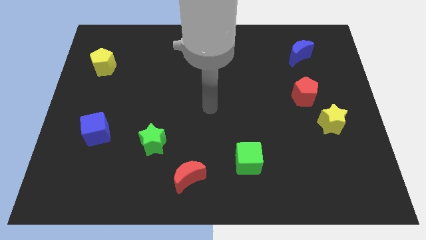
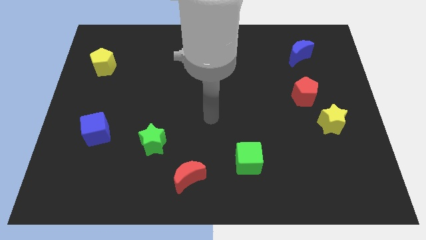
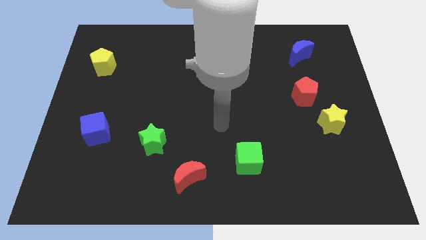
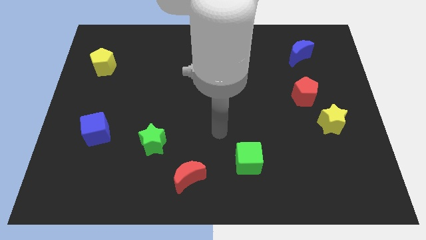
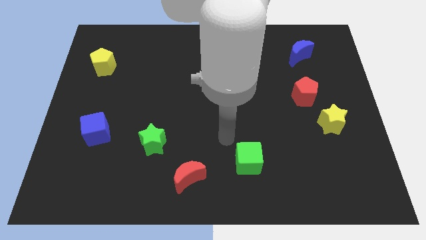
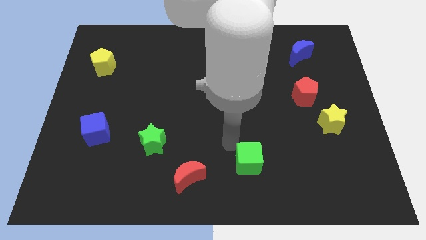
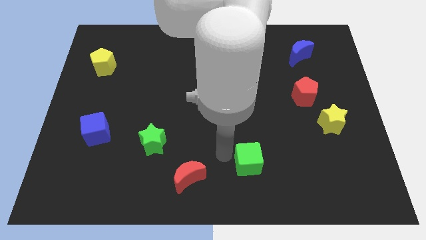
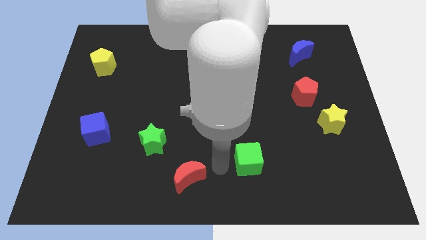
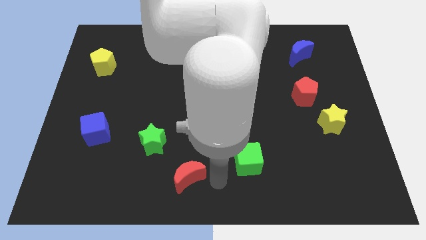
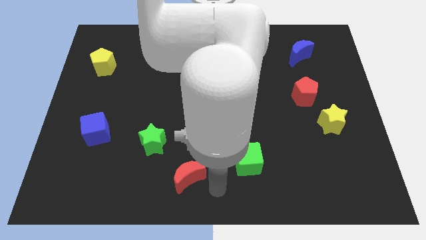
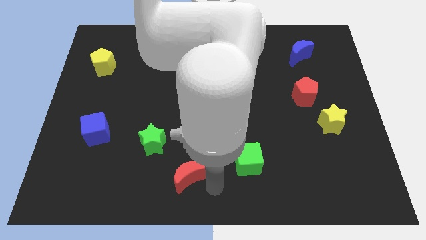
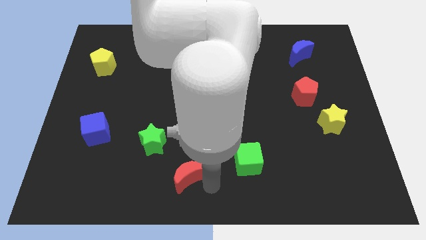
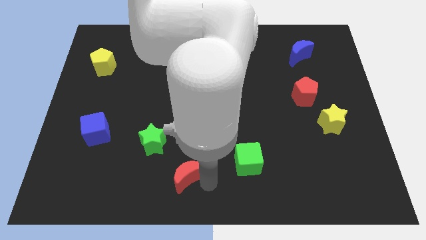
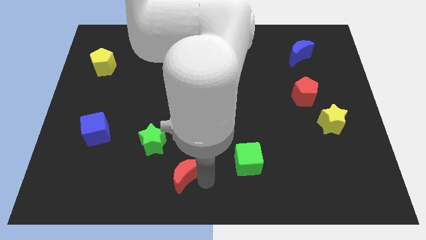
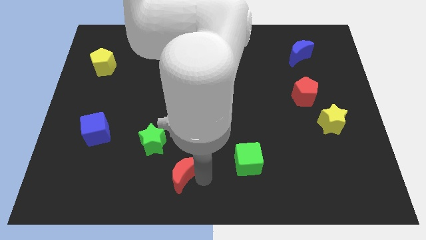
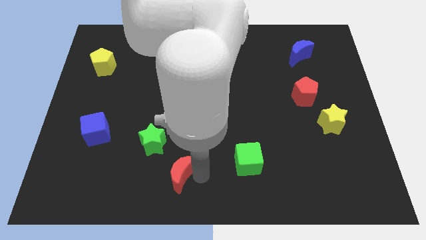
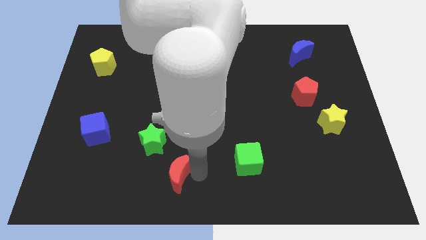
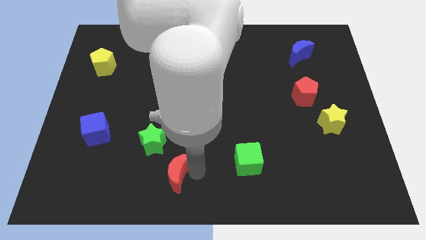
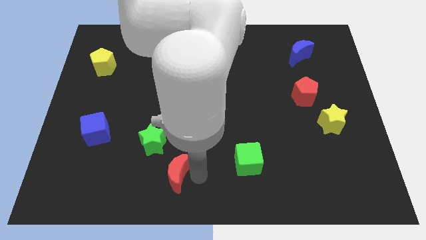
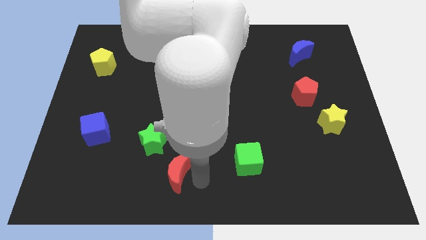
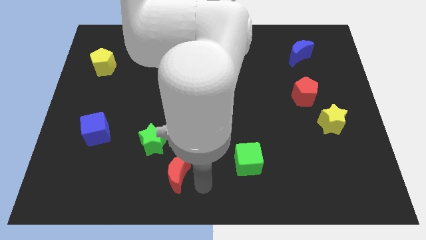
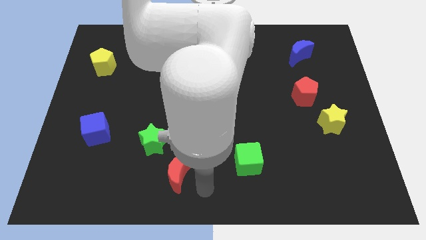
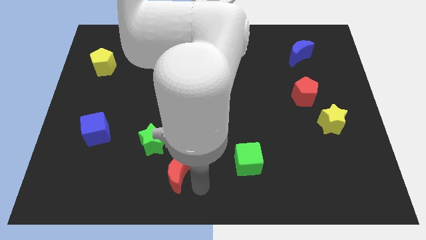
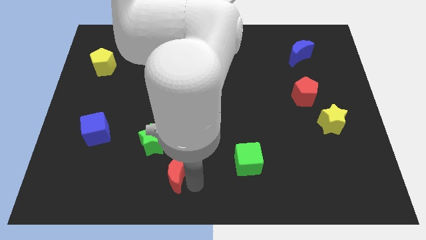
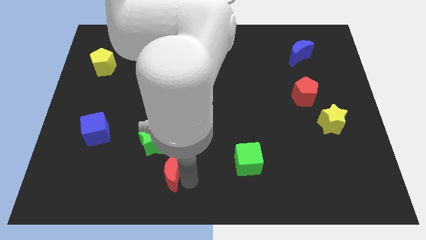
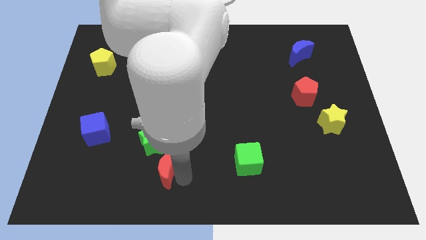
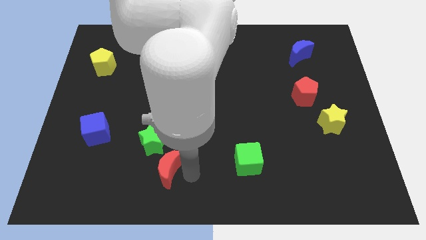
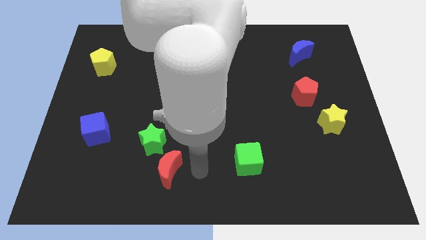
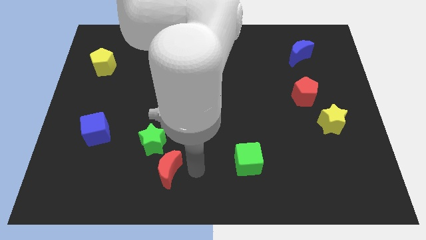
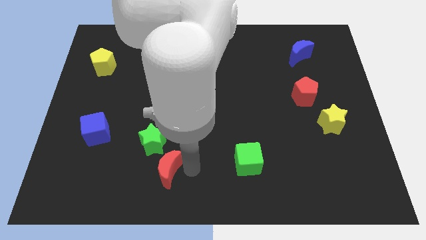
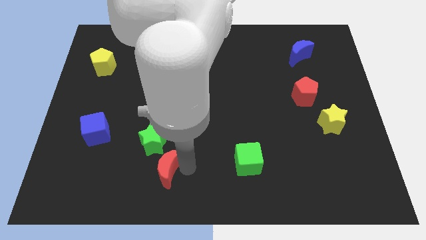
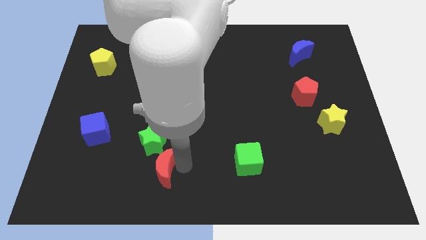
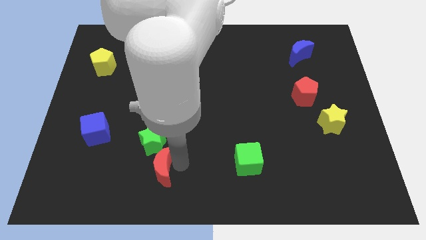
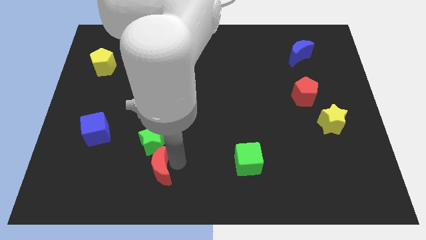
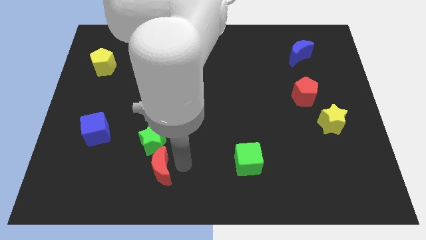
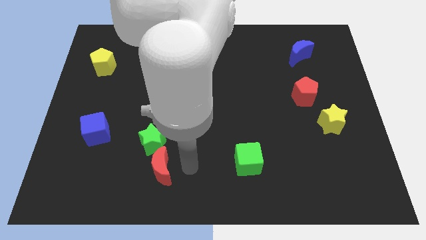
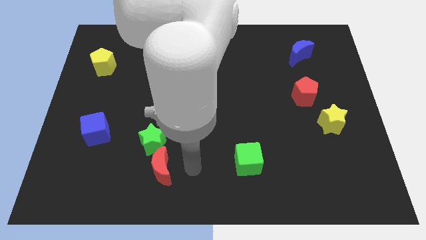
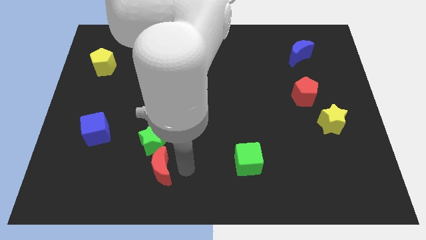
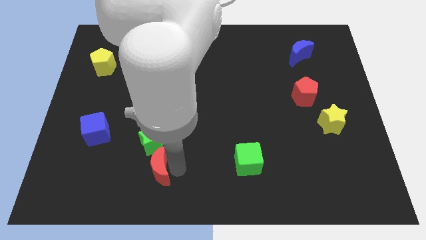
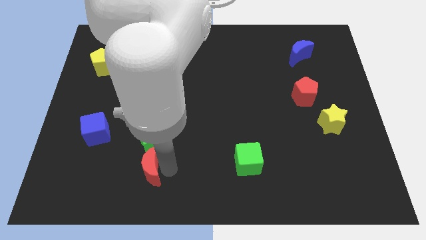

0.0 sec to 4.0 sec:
slide the red moon left a little

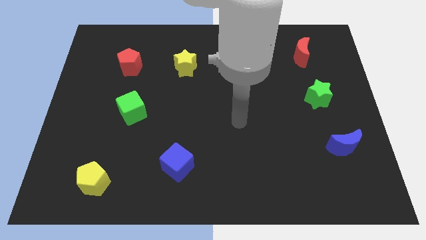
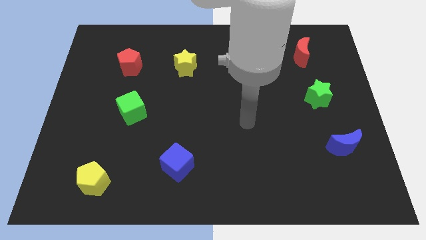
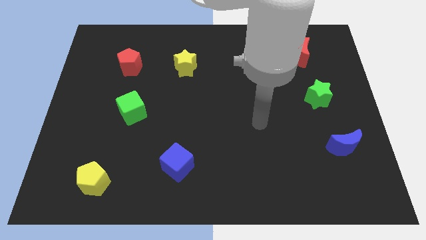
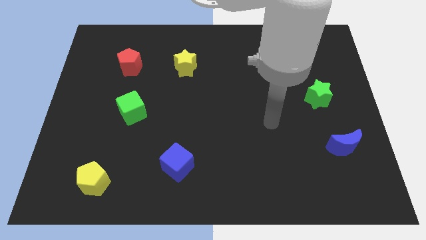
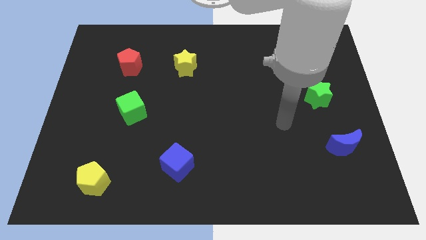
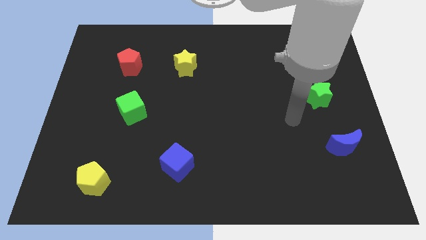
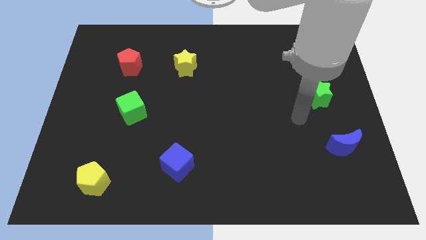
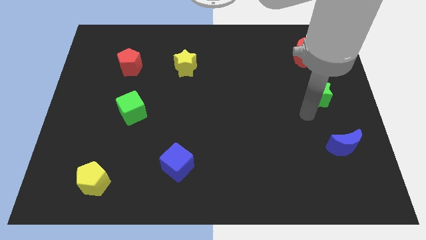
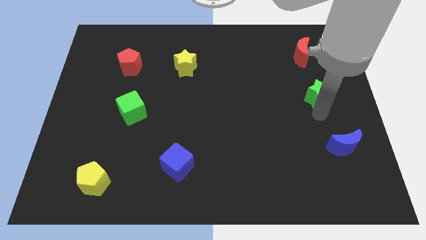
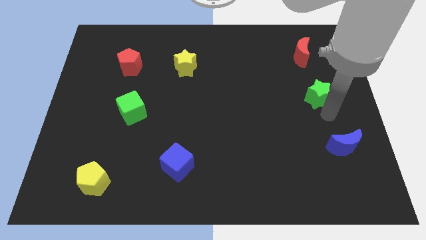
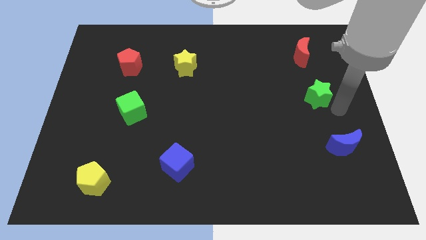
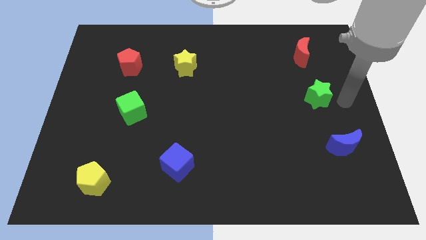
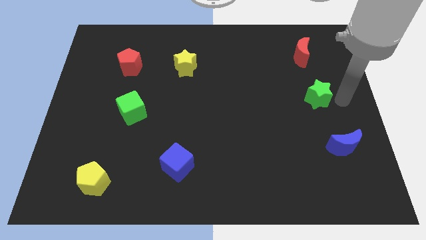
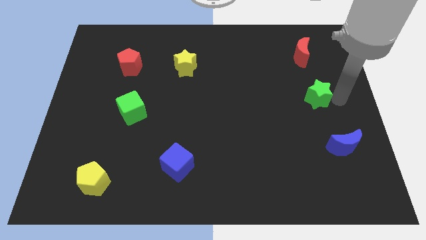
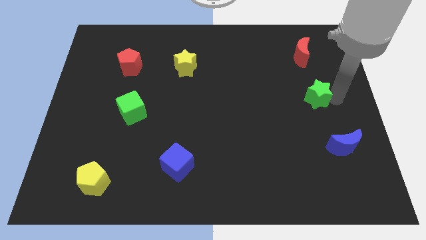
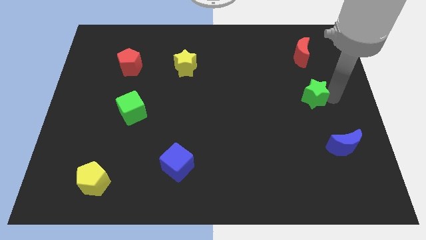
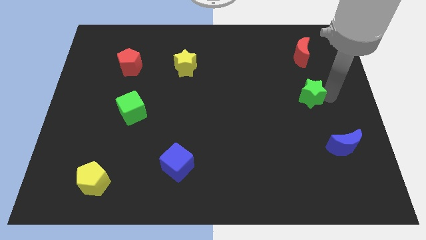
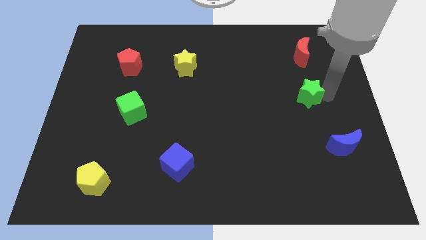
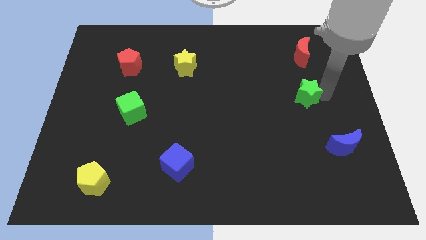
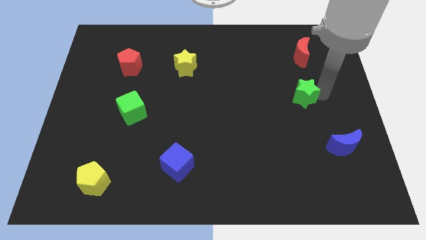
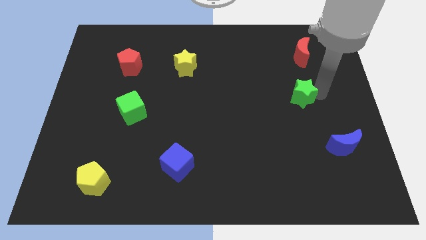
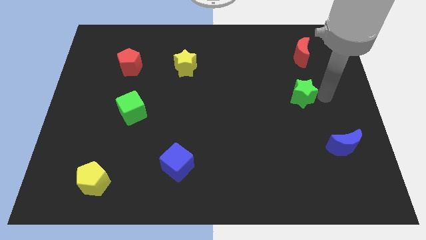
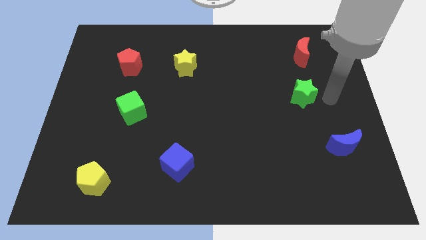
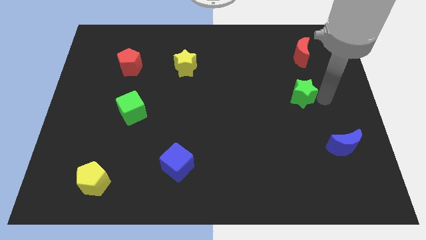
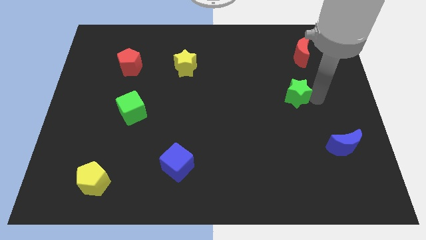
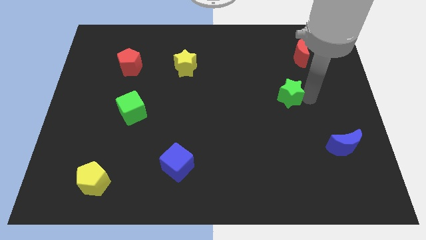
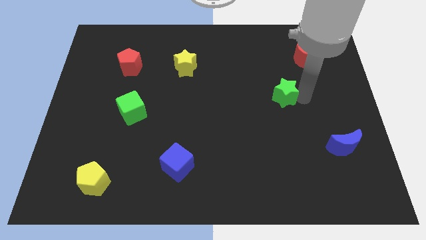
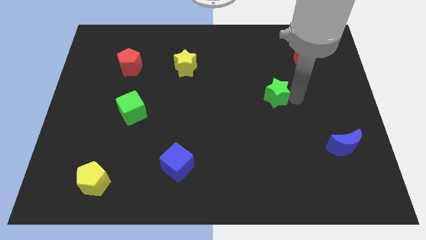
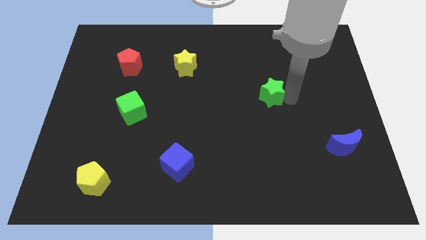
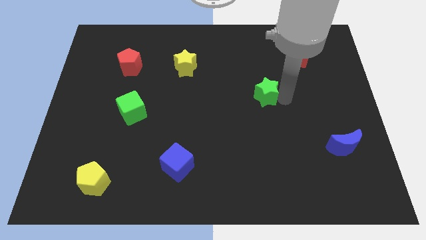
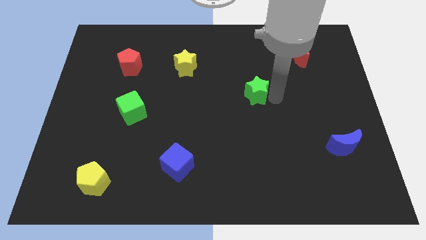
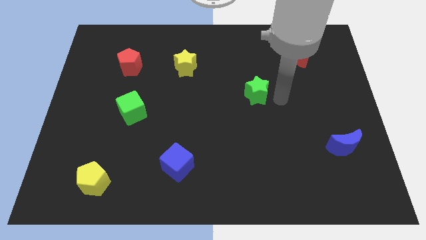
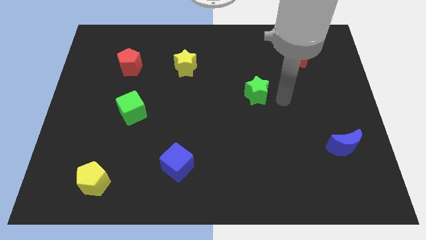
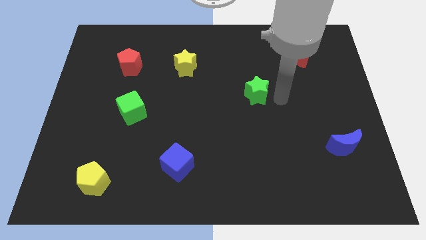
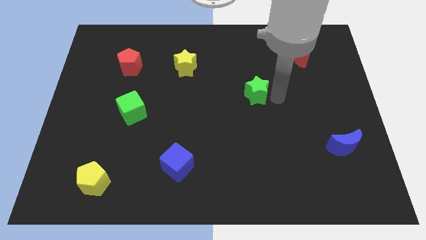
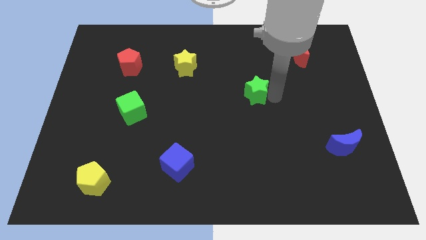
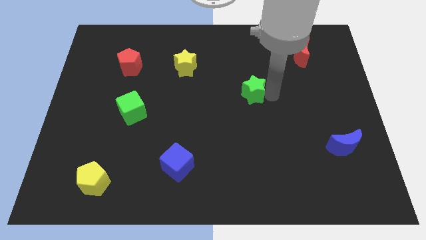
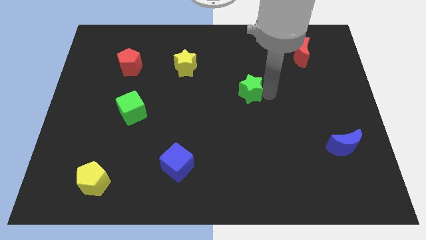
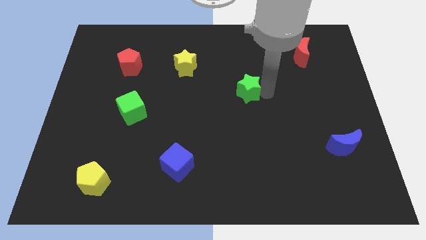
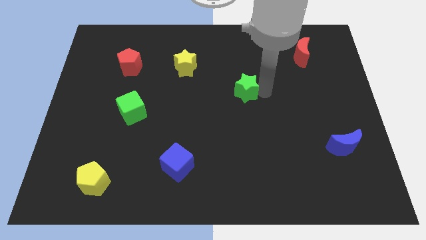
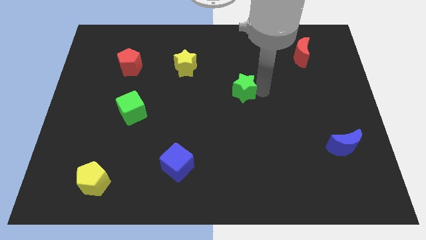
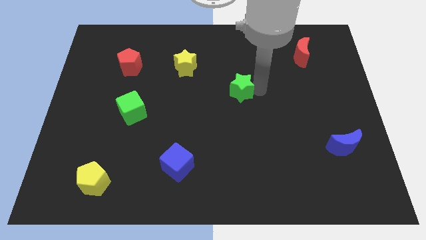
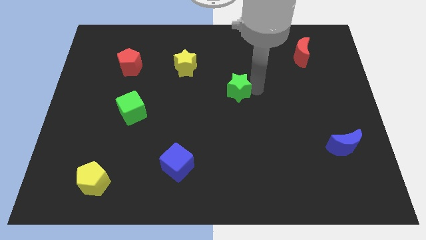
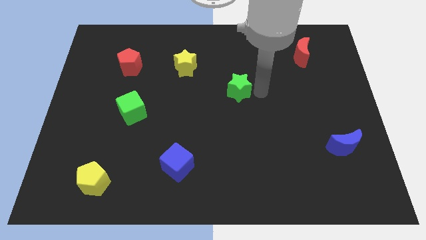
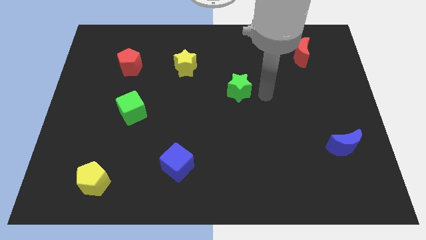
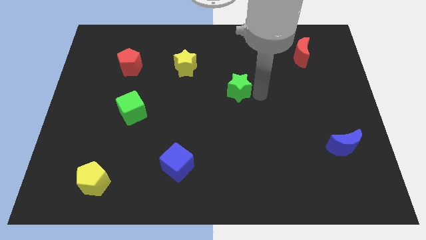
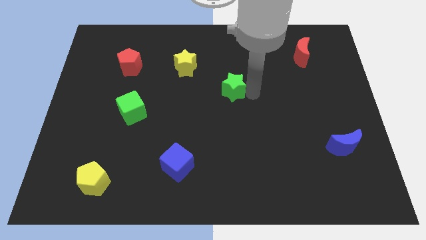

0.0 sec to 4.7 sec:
push the green star left
